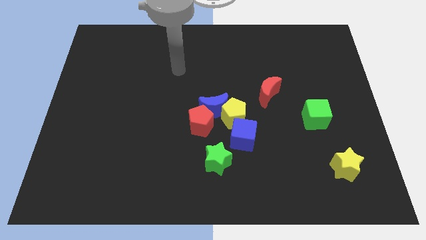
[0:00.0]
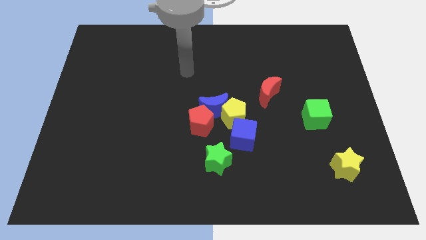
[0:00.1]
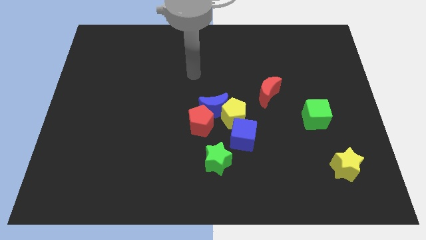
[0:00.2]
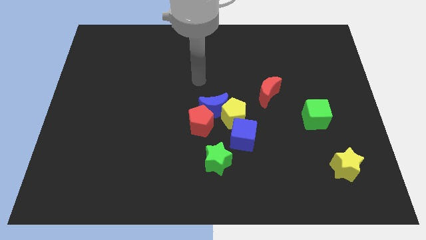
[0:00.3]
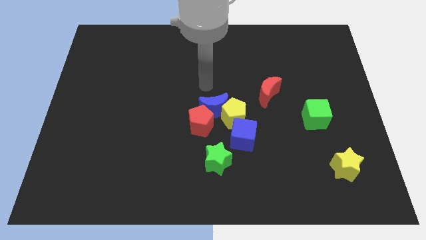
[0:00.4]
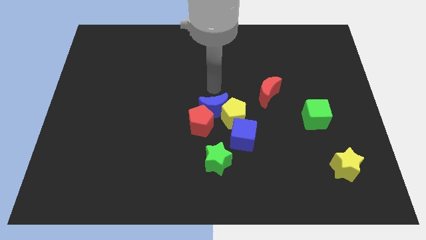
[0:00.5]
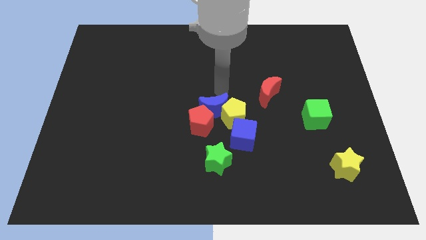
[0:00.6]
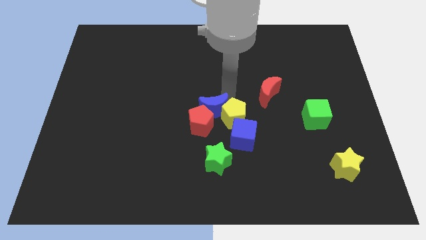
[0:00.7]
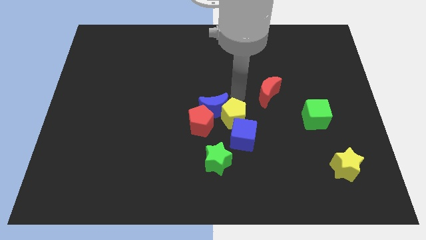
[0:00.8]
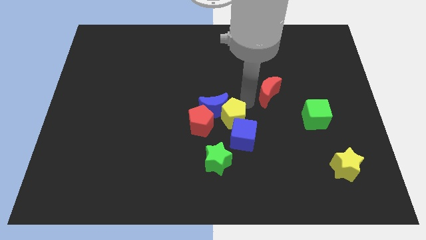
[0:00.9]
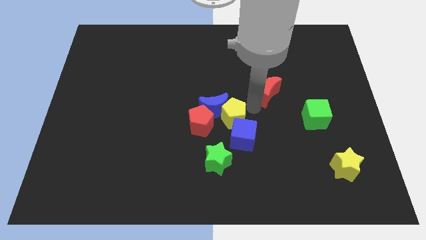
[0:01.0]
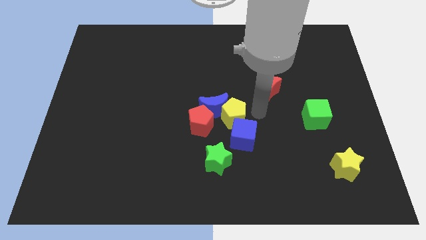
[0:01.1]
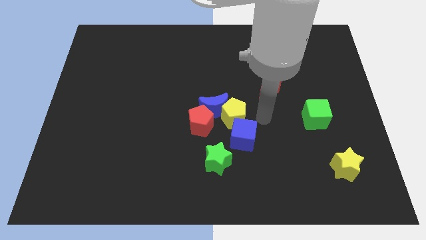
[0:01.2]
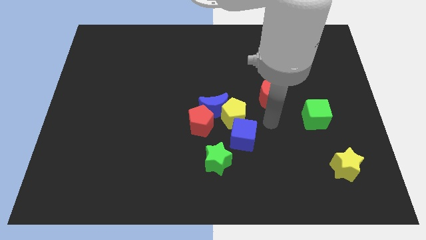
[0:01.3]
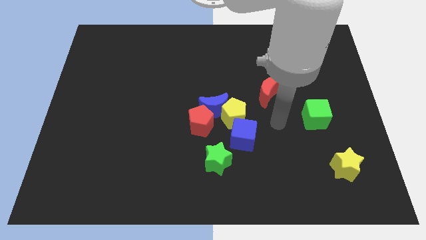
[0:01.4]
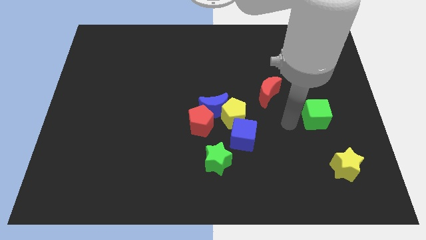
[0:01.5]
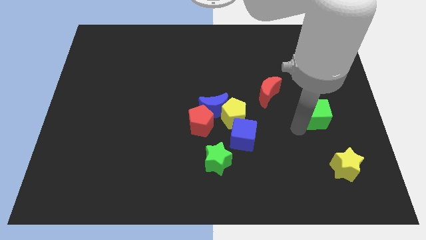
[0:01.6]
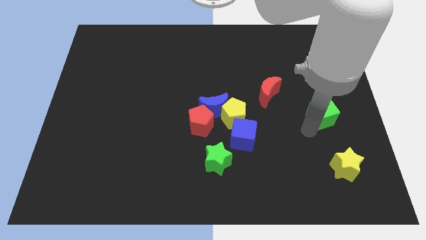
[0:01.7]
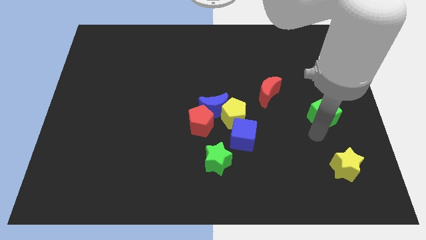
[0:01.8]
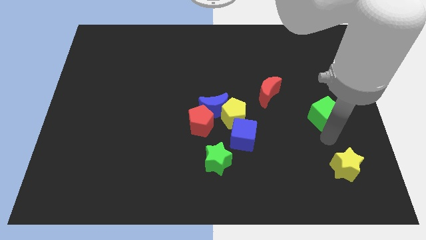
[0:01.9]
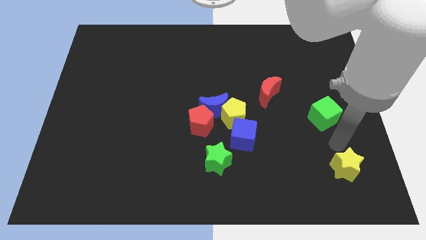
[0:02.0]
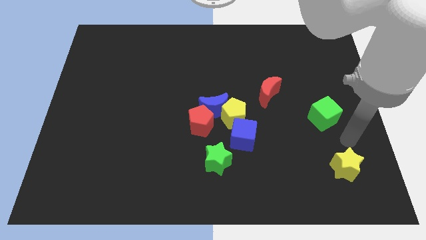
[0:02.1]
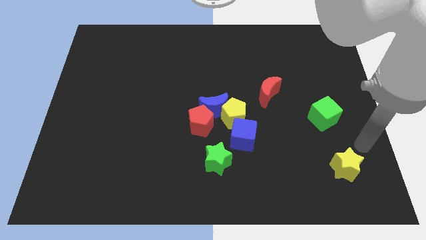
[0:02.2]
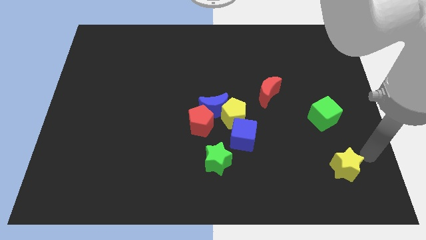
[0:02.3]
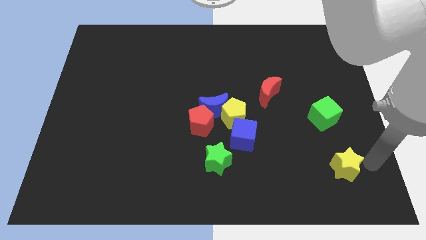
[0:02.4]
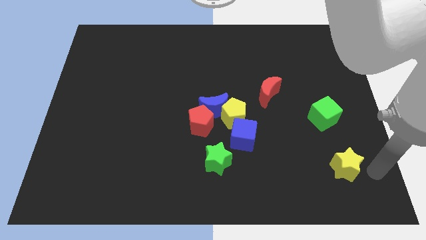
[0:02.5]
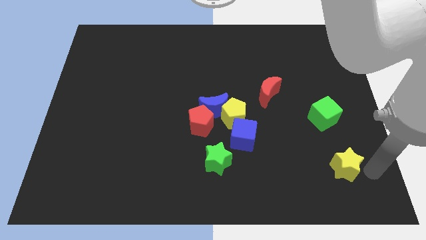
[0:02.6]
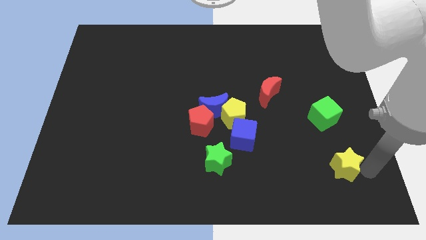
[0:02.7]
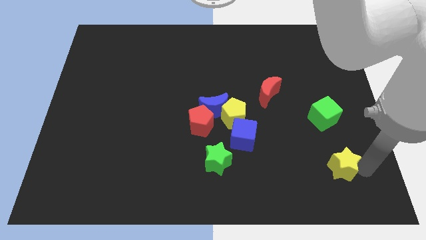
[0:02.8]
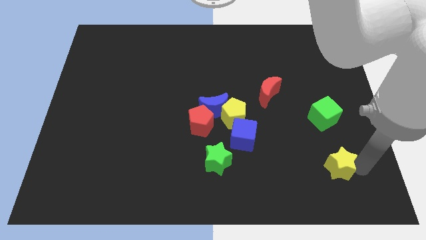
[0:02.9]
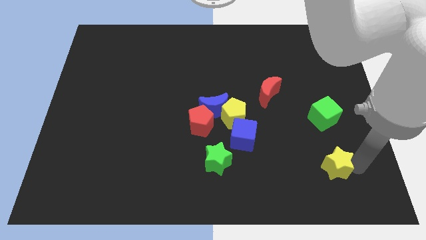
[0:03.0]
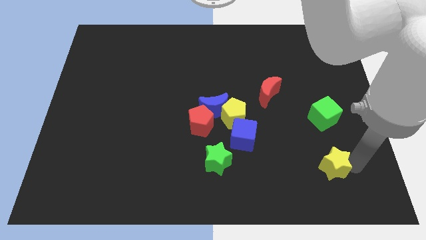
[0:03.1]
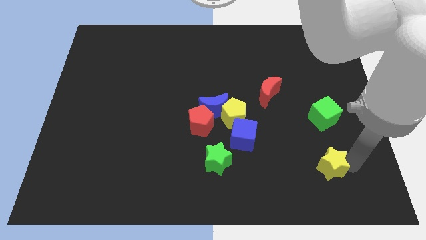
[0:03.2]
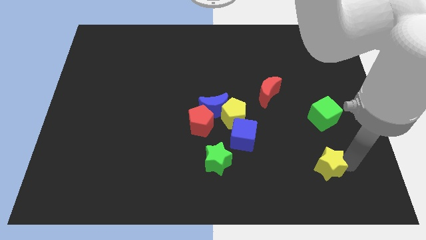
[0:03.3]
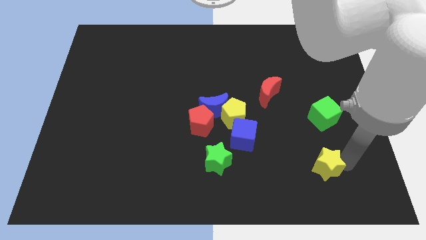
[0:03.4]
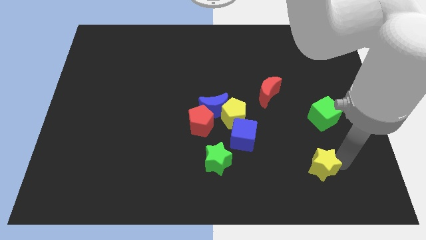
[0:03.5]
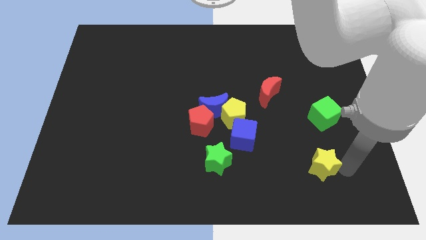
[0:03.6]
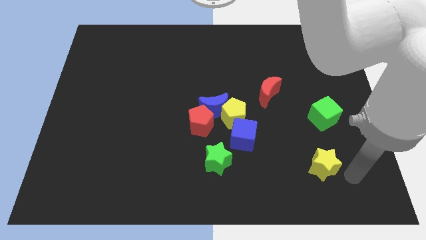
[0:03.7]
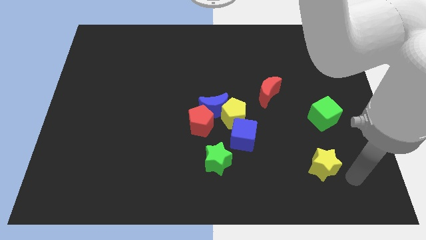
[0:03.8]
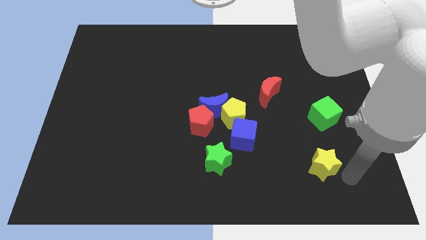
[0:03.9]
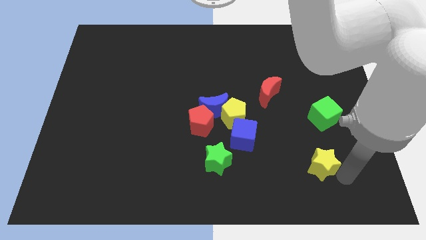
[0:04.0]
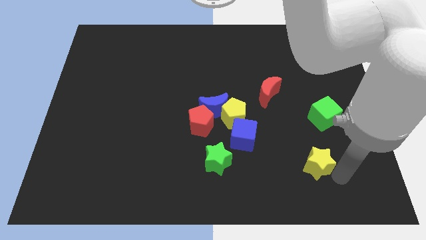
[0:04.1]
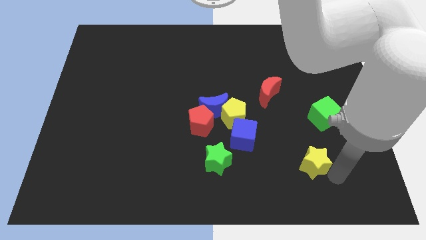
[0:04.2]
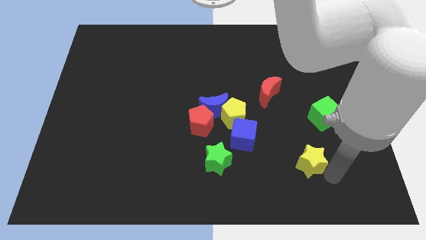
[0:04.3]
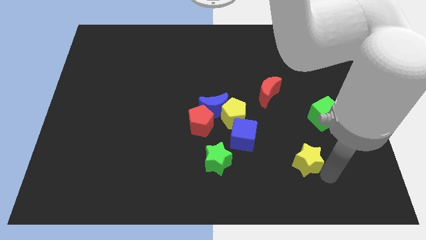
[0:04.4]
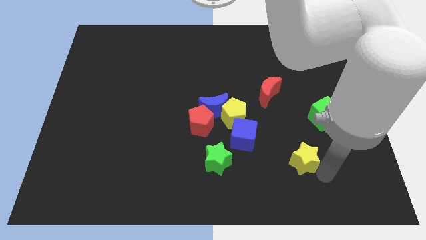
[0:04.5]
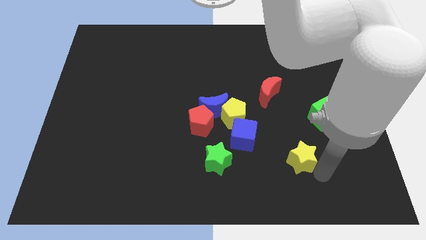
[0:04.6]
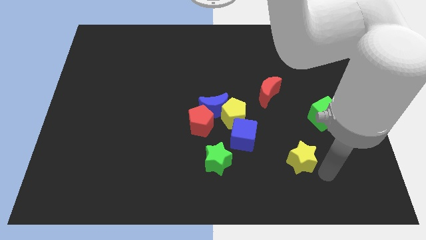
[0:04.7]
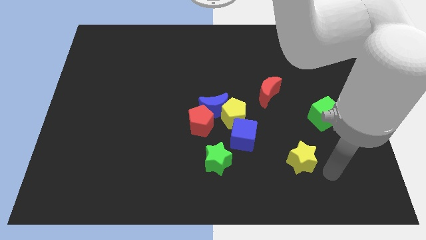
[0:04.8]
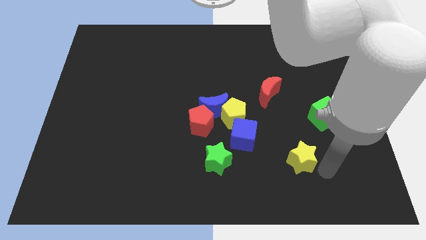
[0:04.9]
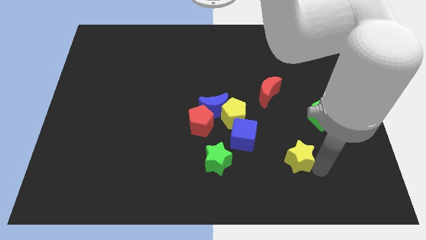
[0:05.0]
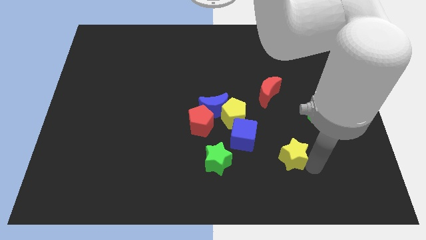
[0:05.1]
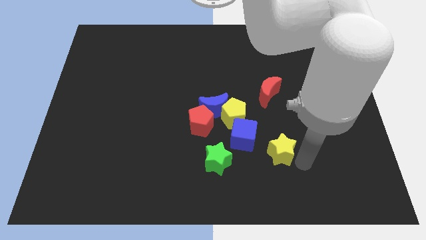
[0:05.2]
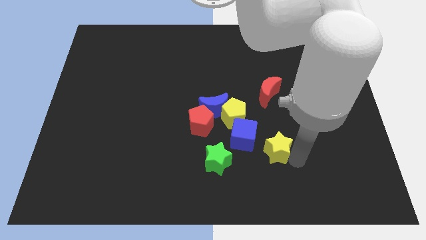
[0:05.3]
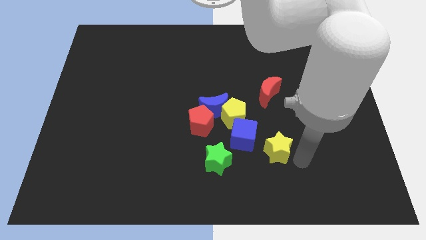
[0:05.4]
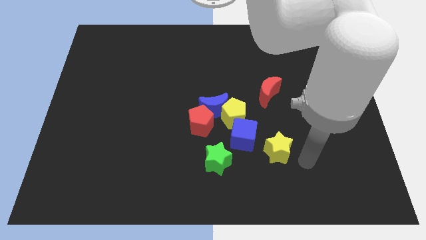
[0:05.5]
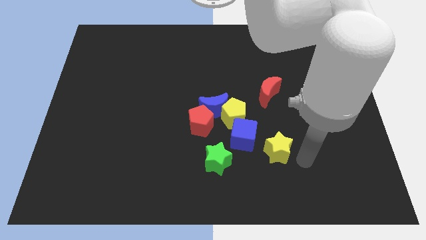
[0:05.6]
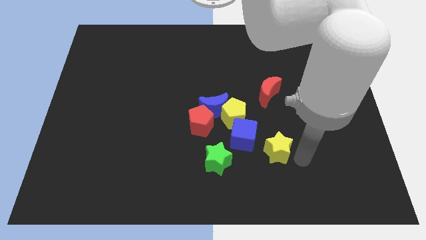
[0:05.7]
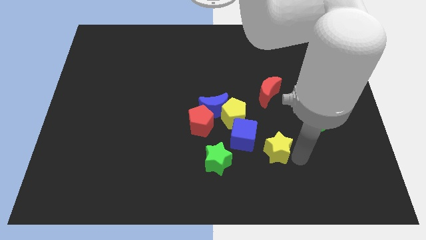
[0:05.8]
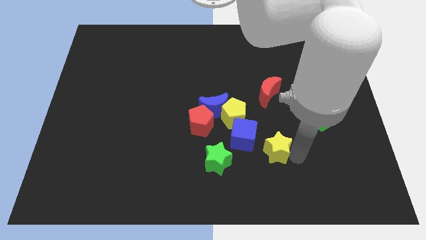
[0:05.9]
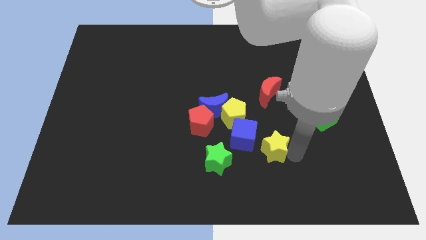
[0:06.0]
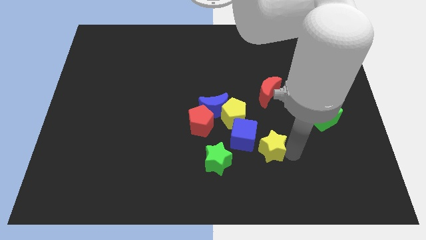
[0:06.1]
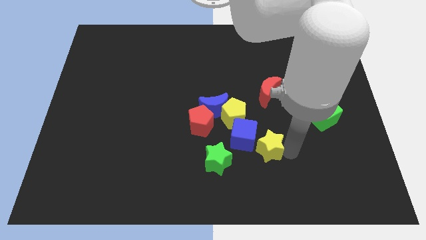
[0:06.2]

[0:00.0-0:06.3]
put the yellow star close to the blue cube

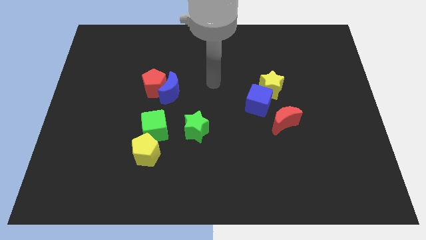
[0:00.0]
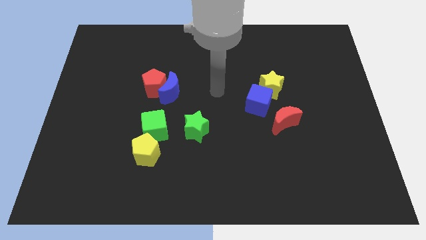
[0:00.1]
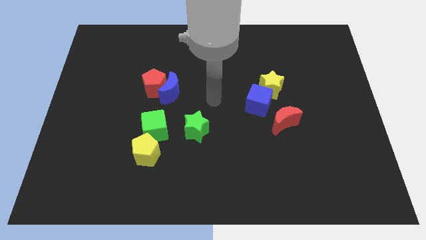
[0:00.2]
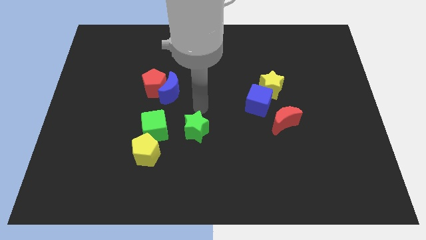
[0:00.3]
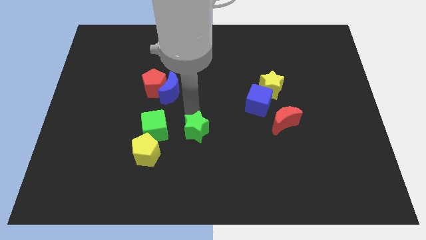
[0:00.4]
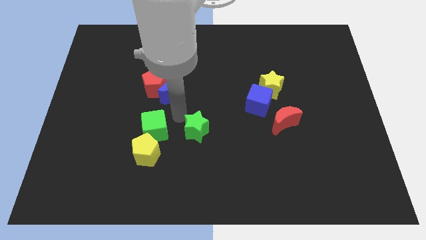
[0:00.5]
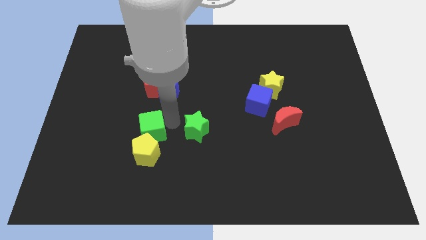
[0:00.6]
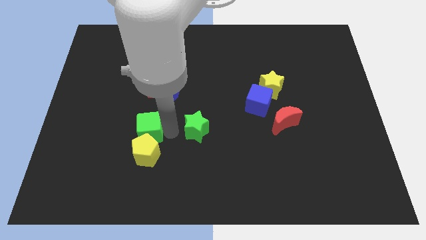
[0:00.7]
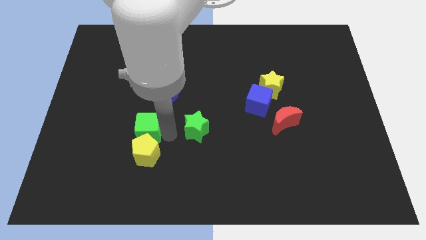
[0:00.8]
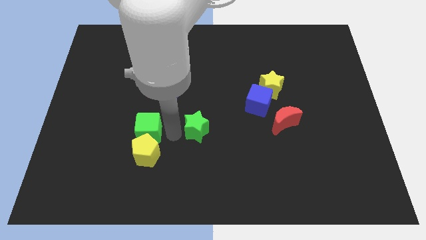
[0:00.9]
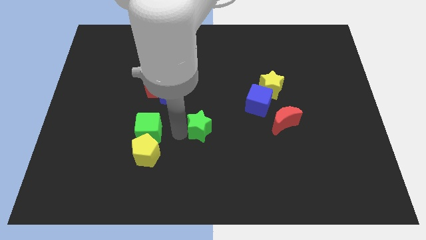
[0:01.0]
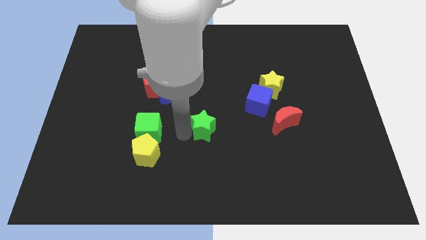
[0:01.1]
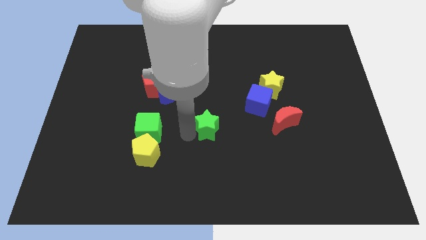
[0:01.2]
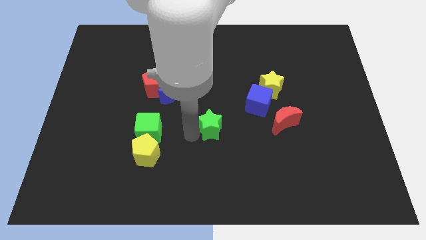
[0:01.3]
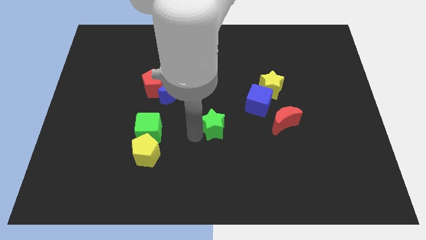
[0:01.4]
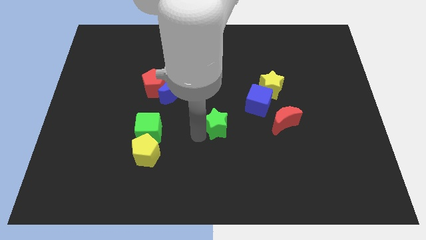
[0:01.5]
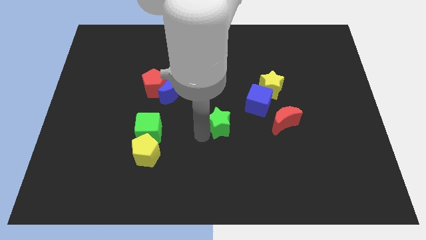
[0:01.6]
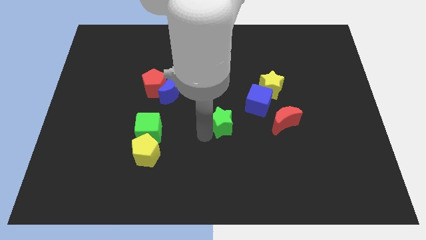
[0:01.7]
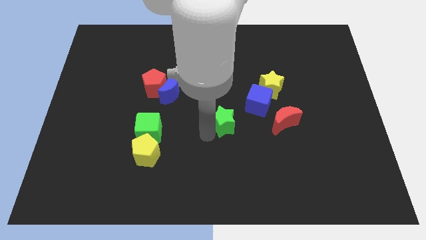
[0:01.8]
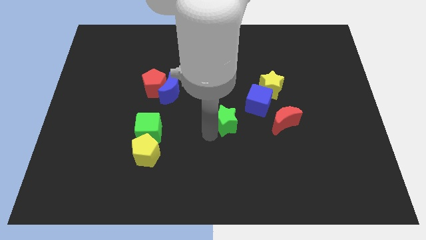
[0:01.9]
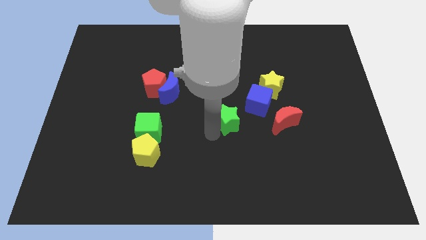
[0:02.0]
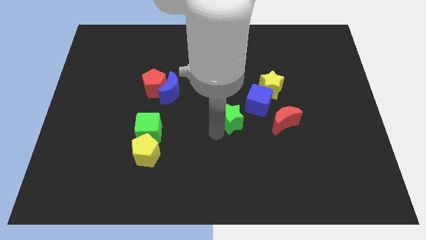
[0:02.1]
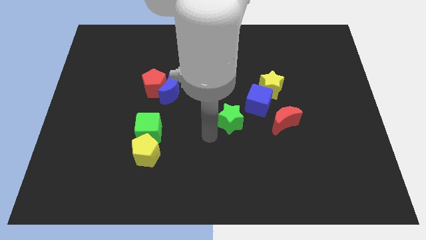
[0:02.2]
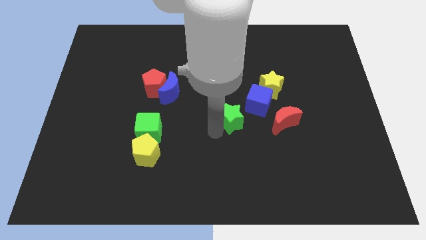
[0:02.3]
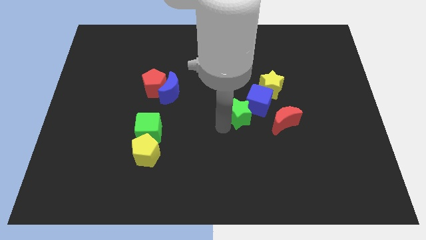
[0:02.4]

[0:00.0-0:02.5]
put the green star towards the blue cube
